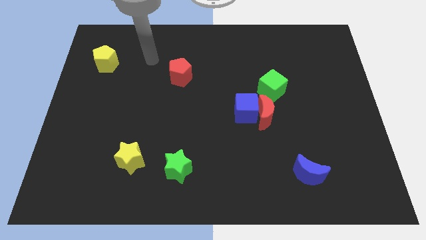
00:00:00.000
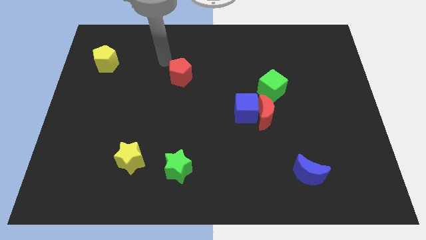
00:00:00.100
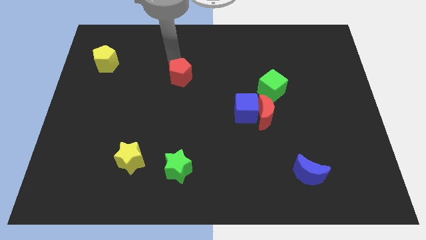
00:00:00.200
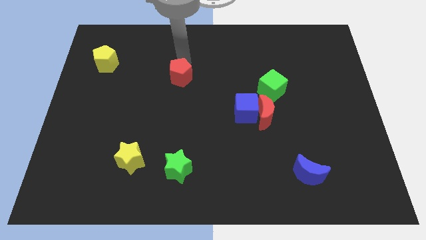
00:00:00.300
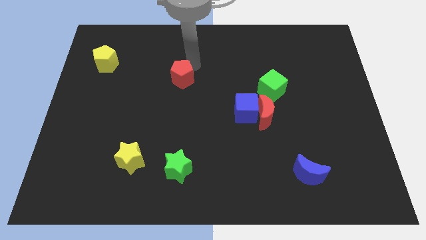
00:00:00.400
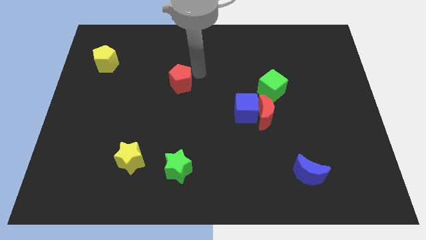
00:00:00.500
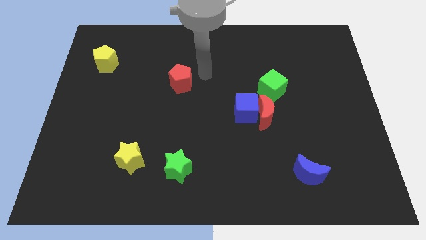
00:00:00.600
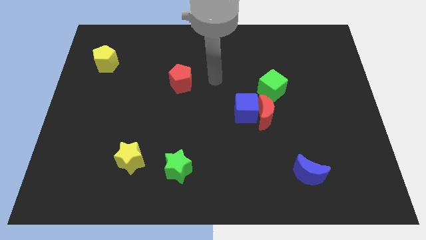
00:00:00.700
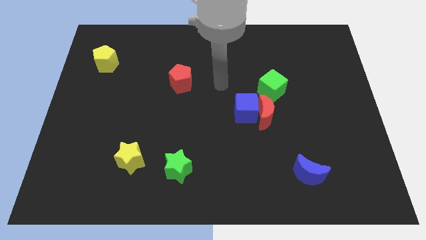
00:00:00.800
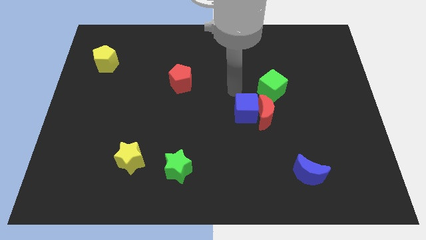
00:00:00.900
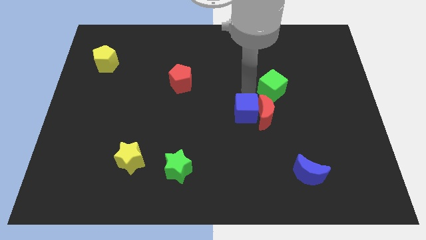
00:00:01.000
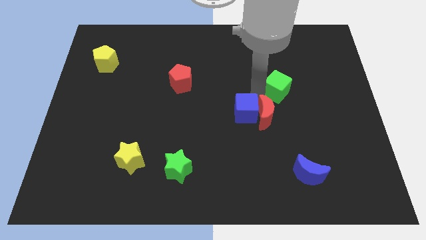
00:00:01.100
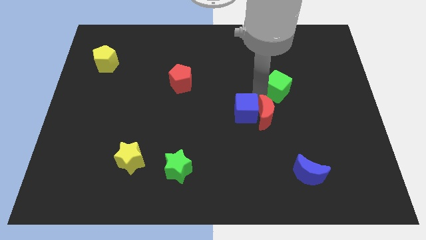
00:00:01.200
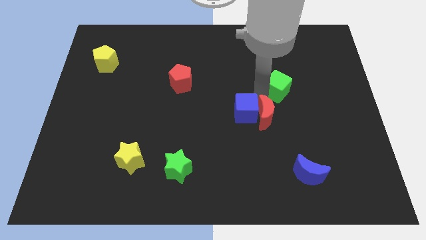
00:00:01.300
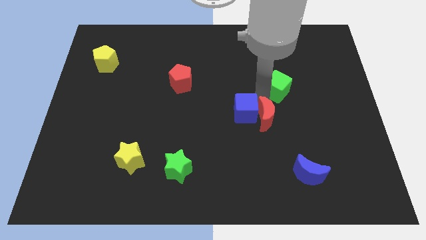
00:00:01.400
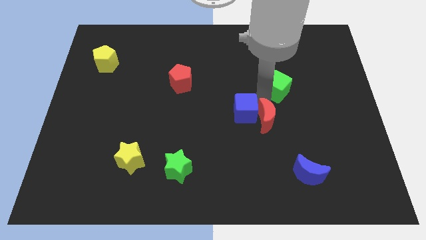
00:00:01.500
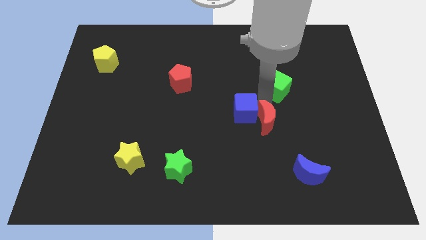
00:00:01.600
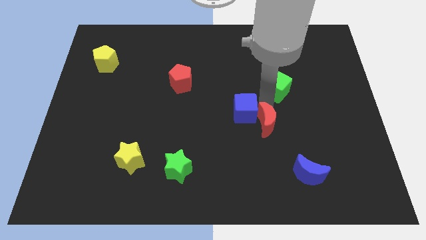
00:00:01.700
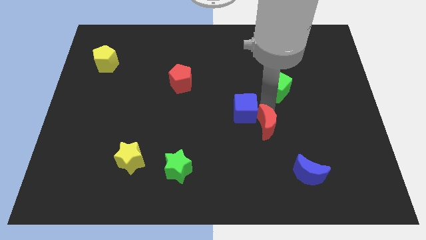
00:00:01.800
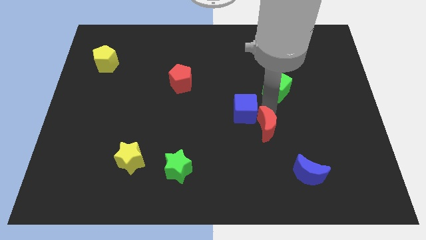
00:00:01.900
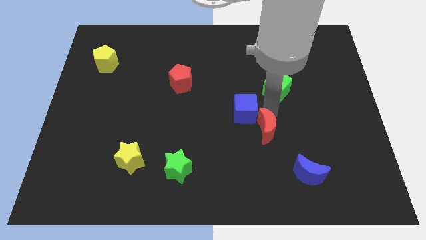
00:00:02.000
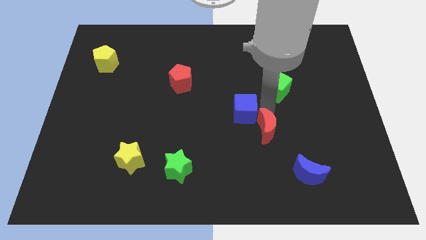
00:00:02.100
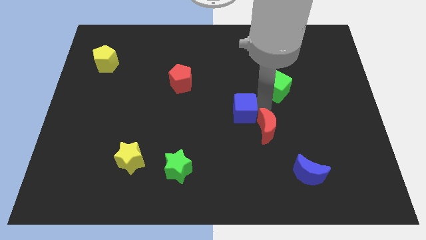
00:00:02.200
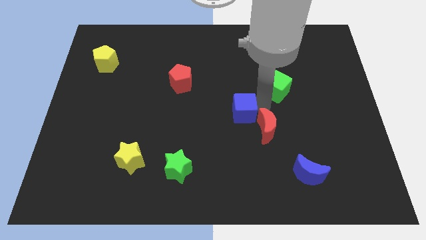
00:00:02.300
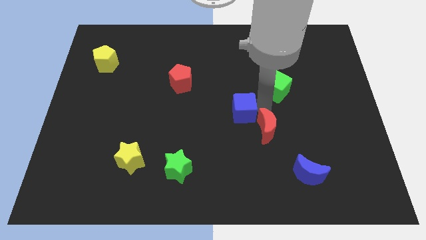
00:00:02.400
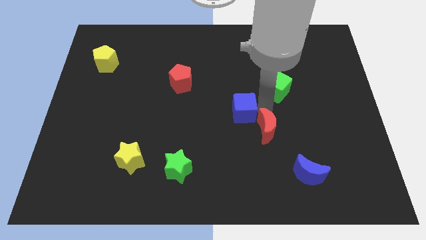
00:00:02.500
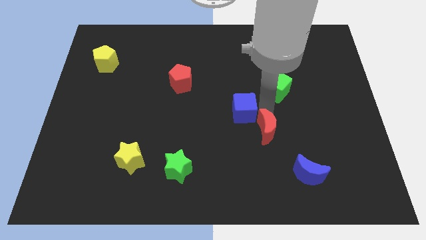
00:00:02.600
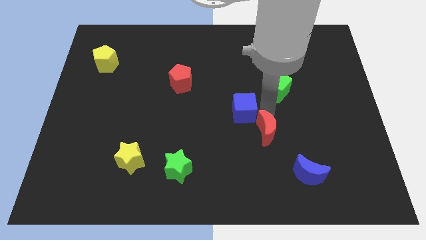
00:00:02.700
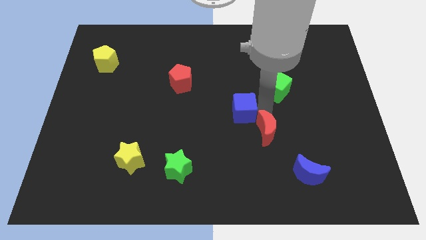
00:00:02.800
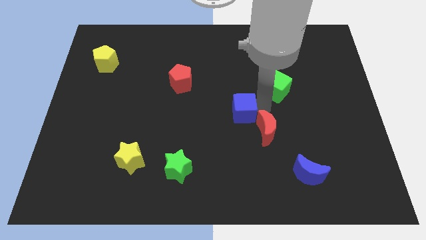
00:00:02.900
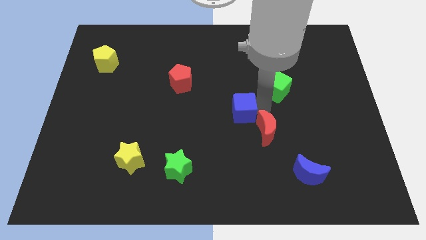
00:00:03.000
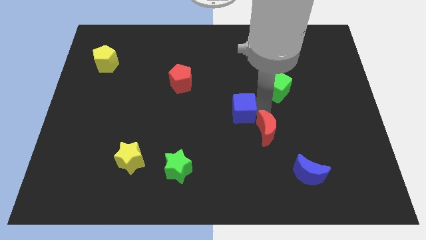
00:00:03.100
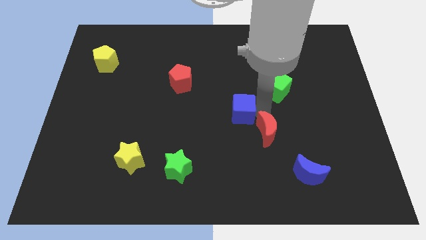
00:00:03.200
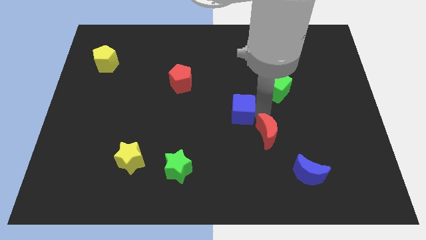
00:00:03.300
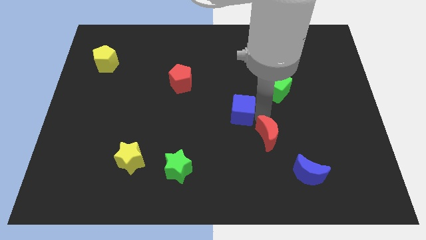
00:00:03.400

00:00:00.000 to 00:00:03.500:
move the red moon away from the blue cube and green cube

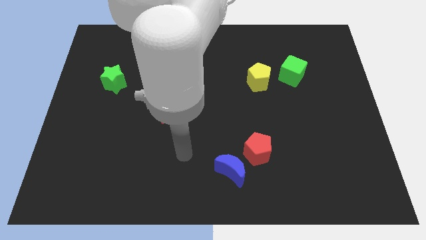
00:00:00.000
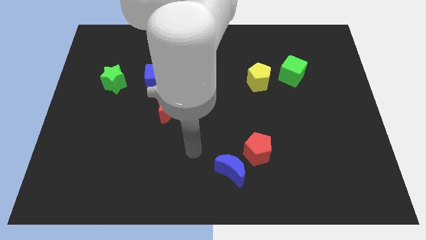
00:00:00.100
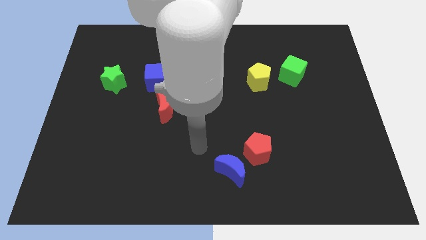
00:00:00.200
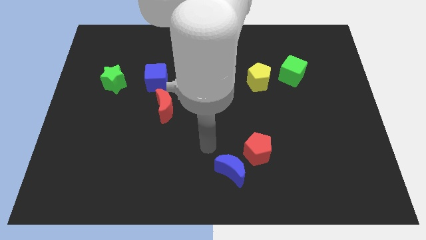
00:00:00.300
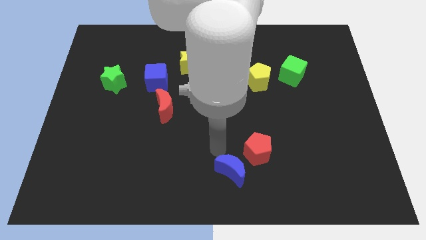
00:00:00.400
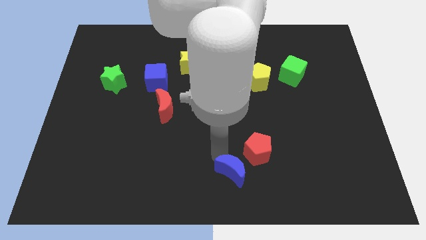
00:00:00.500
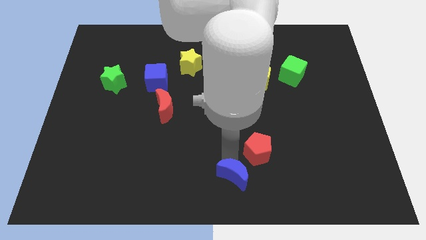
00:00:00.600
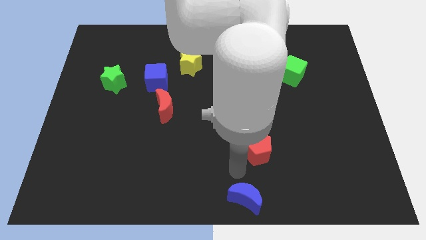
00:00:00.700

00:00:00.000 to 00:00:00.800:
pull the red pentagon apart from the blue moon

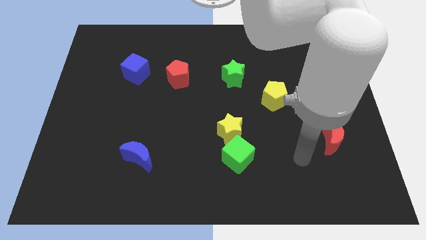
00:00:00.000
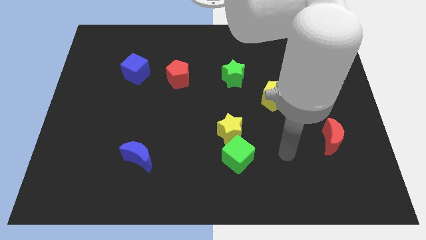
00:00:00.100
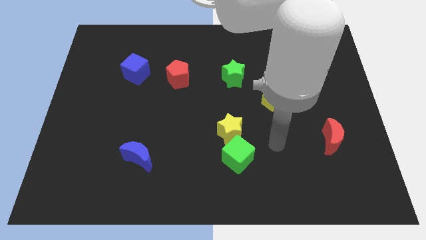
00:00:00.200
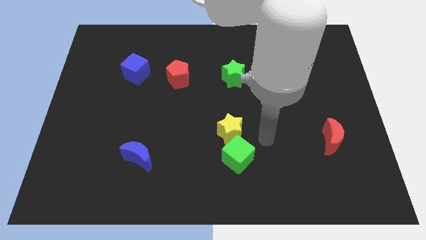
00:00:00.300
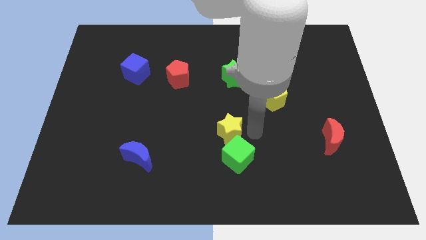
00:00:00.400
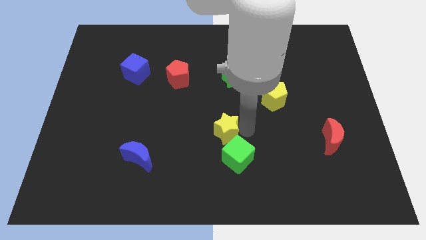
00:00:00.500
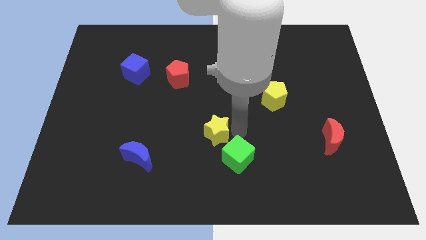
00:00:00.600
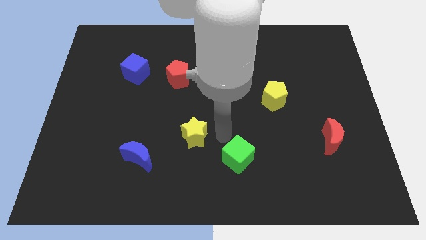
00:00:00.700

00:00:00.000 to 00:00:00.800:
move the green cube away from the yellow star

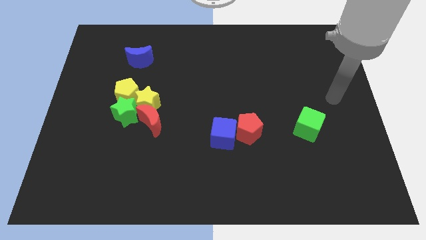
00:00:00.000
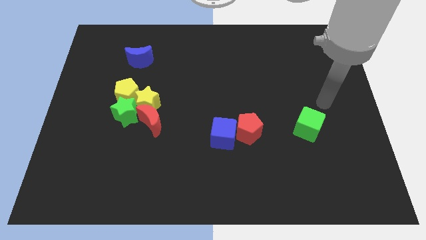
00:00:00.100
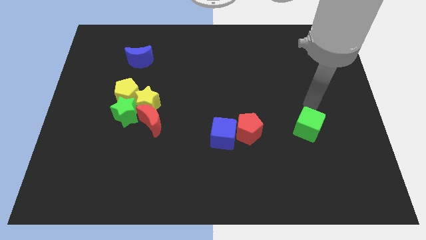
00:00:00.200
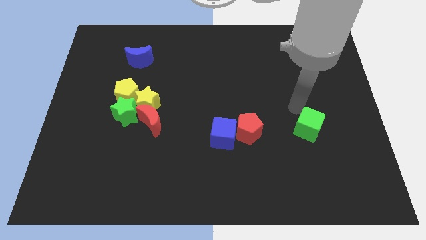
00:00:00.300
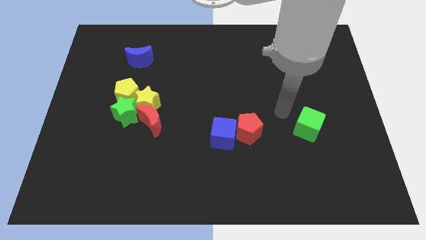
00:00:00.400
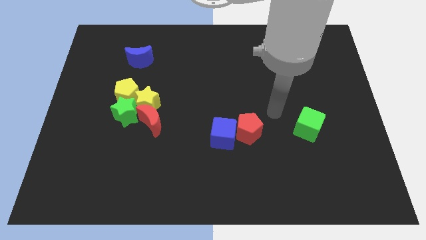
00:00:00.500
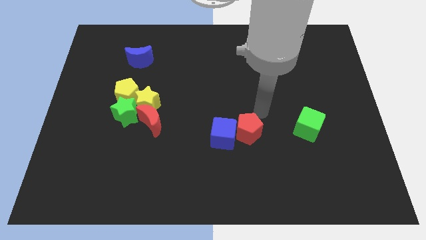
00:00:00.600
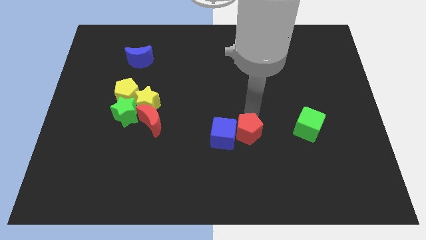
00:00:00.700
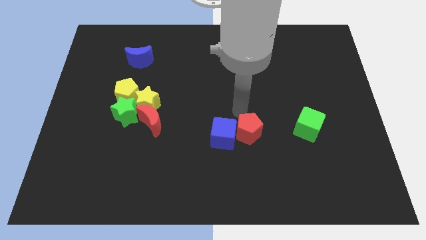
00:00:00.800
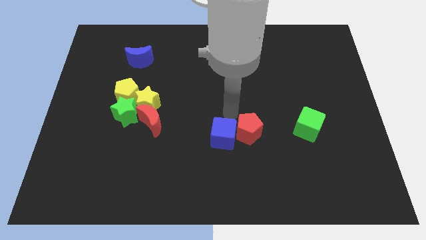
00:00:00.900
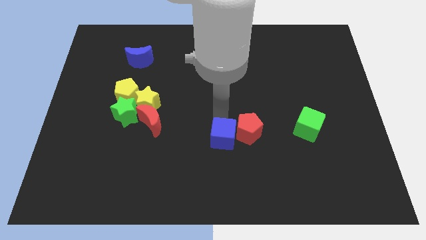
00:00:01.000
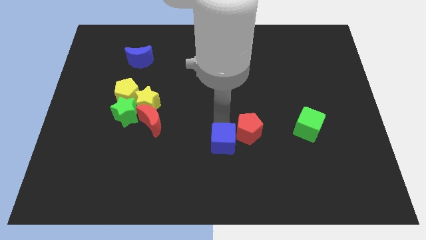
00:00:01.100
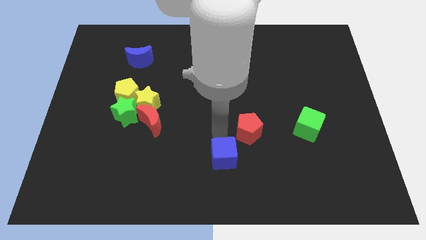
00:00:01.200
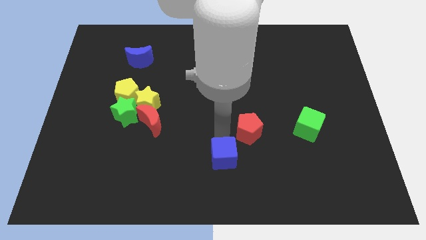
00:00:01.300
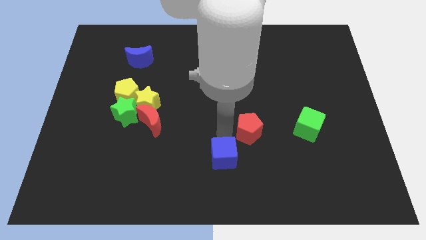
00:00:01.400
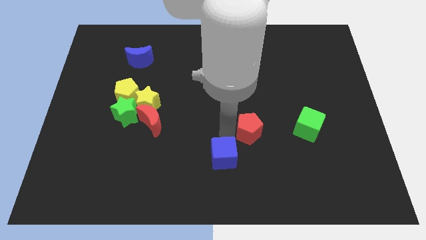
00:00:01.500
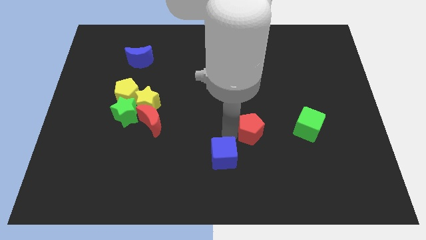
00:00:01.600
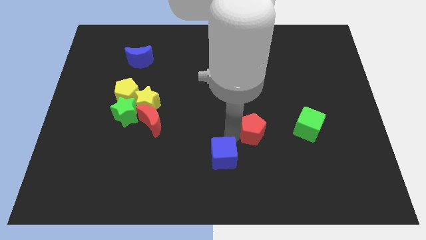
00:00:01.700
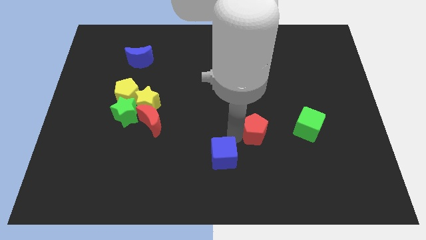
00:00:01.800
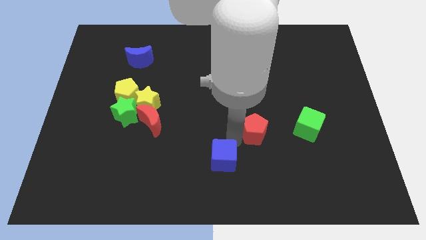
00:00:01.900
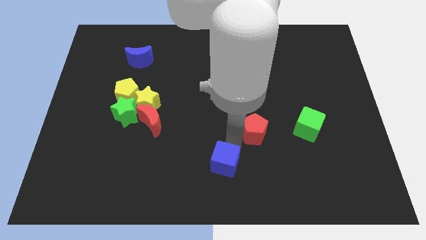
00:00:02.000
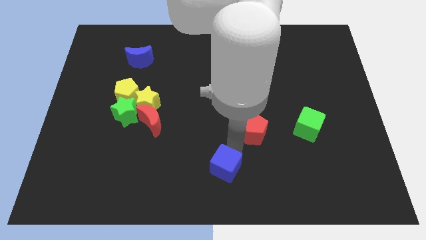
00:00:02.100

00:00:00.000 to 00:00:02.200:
move the red pentagon away from the blue cube

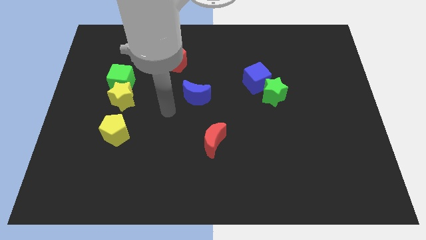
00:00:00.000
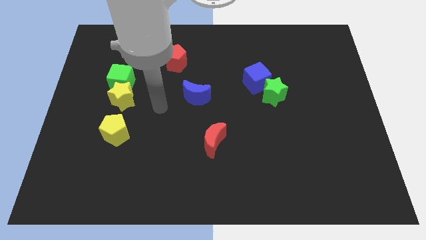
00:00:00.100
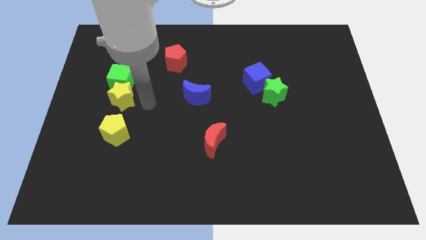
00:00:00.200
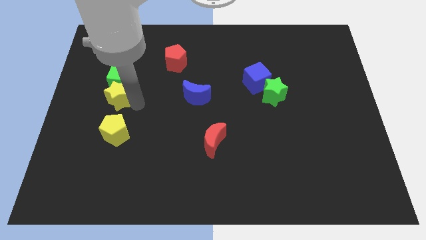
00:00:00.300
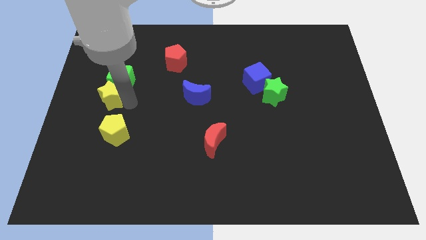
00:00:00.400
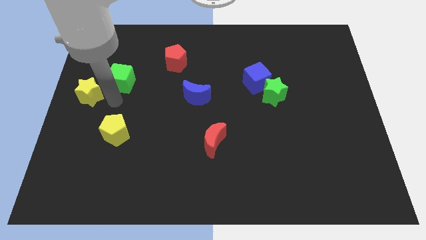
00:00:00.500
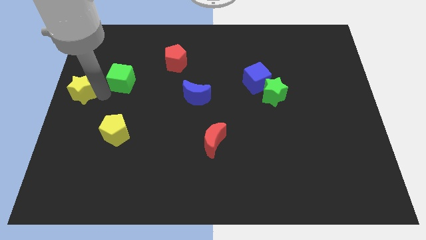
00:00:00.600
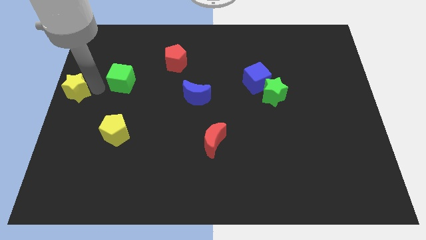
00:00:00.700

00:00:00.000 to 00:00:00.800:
pull the green cube apart from the yellow star

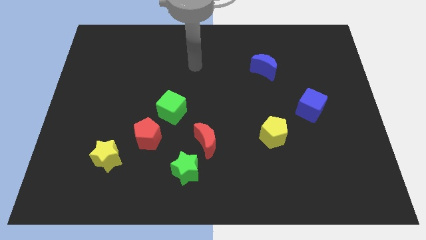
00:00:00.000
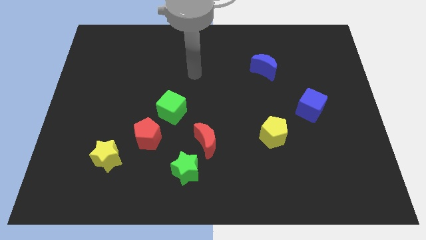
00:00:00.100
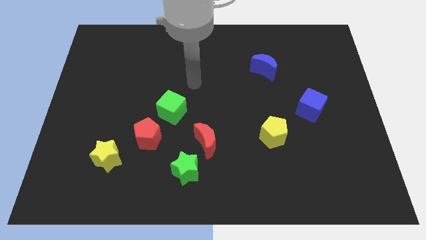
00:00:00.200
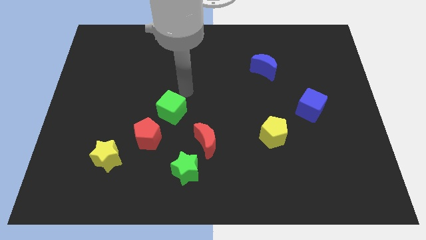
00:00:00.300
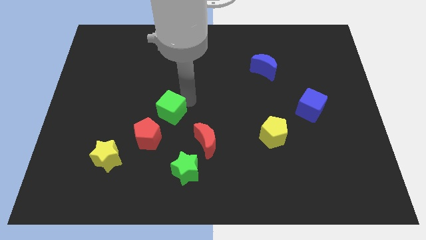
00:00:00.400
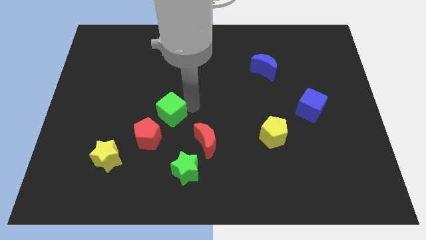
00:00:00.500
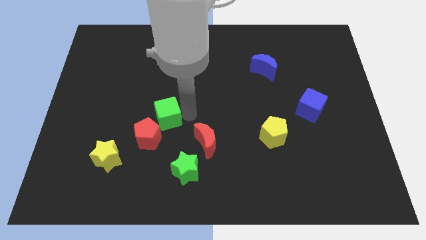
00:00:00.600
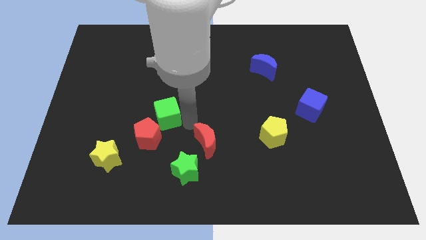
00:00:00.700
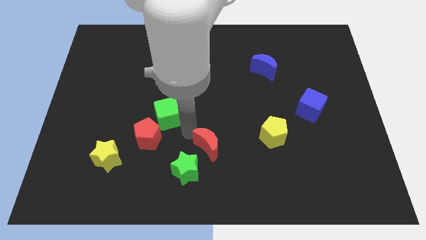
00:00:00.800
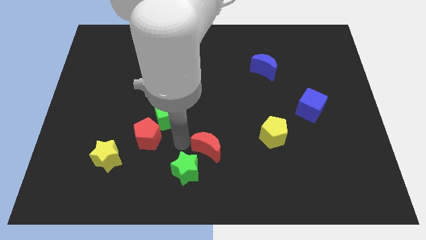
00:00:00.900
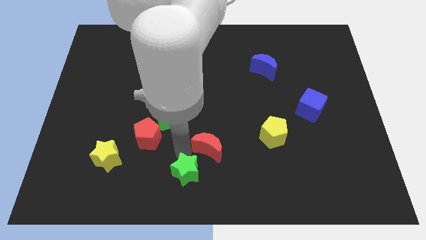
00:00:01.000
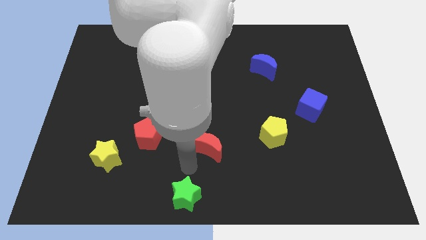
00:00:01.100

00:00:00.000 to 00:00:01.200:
pull the red moon apart from the green star
